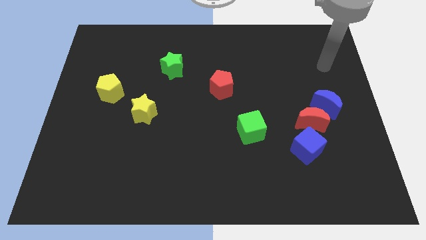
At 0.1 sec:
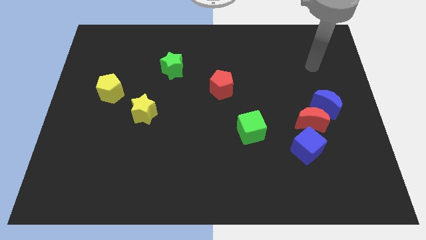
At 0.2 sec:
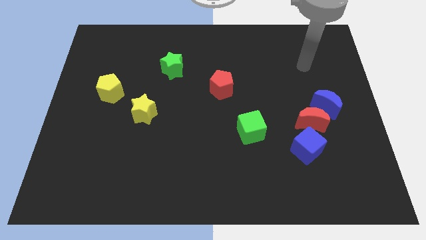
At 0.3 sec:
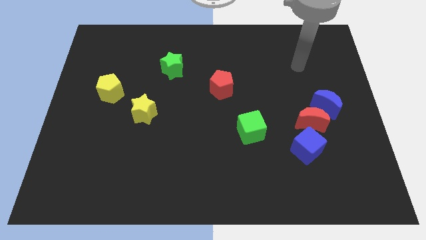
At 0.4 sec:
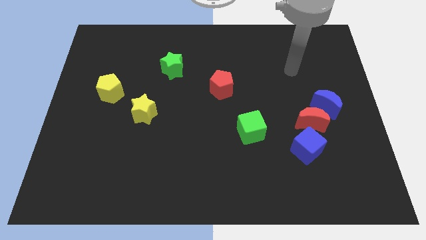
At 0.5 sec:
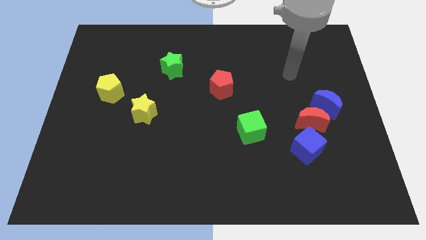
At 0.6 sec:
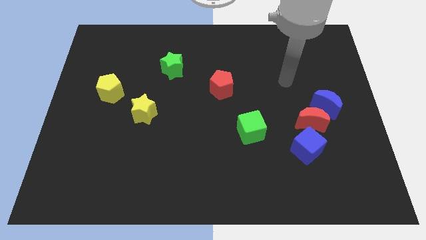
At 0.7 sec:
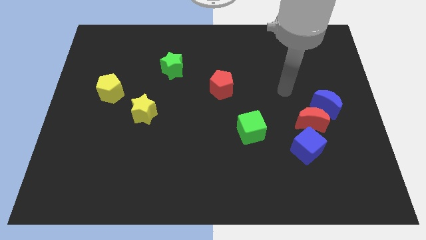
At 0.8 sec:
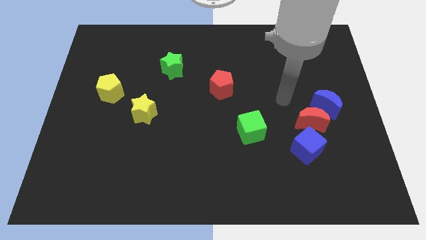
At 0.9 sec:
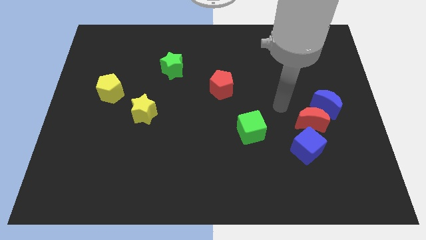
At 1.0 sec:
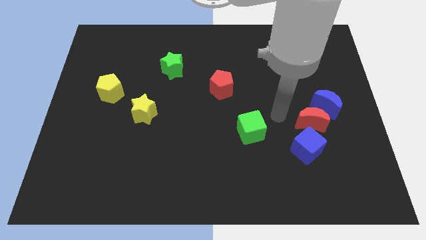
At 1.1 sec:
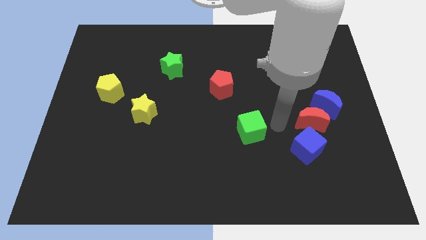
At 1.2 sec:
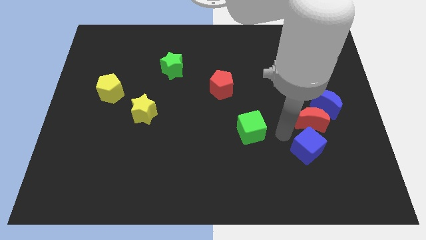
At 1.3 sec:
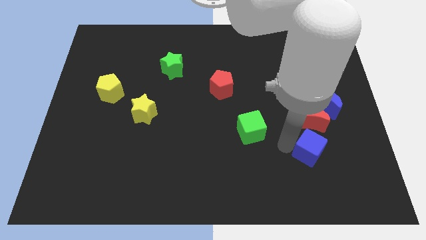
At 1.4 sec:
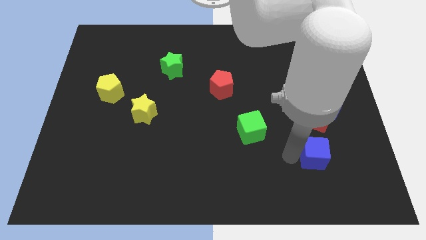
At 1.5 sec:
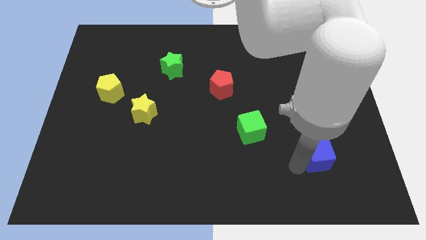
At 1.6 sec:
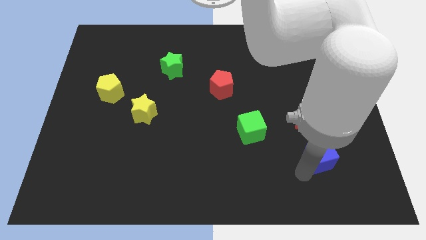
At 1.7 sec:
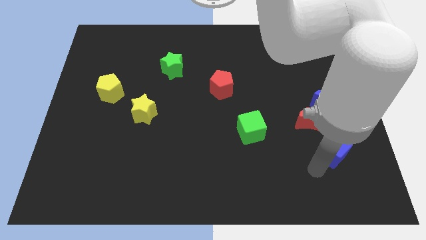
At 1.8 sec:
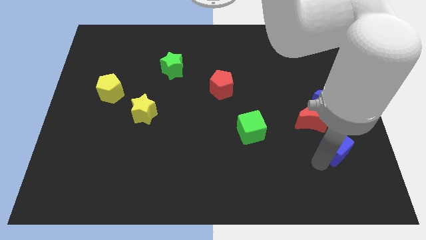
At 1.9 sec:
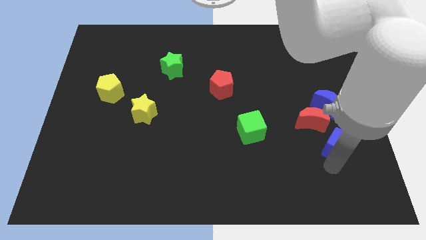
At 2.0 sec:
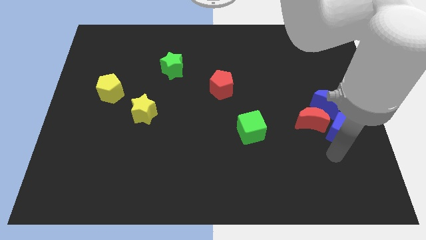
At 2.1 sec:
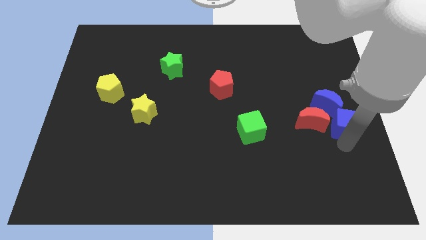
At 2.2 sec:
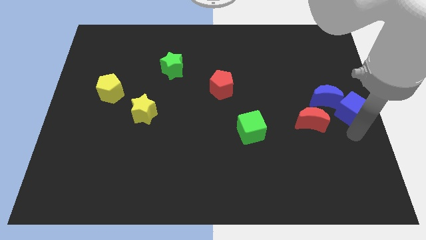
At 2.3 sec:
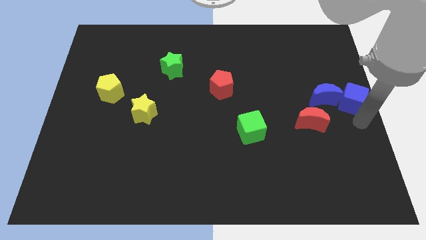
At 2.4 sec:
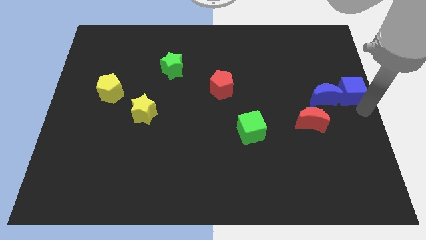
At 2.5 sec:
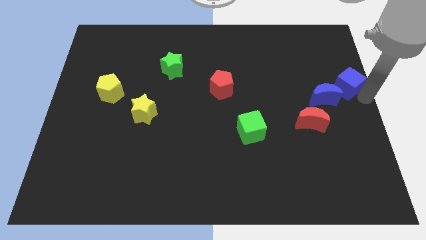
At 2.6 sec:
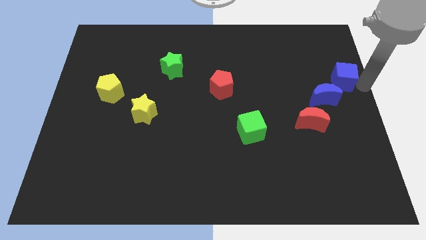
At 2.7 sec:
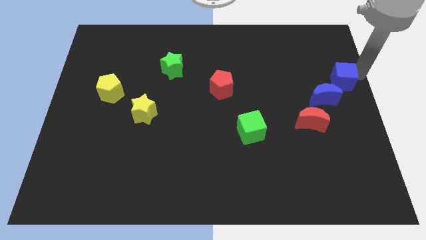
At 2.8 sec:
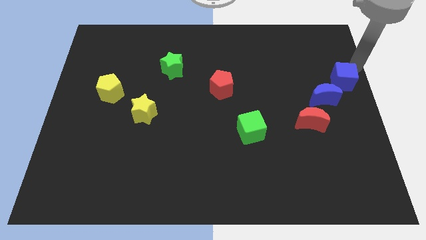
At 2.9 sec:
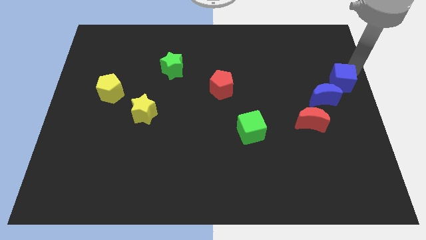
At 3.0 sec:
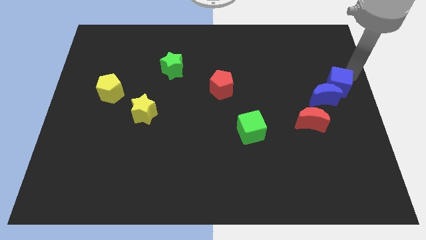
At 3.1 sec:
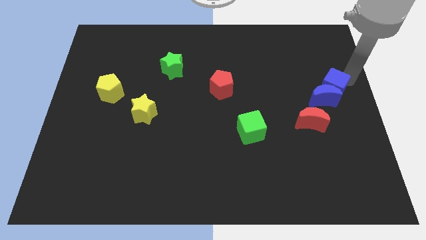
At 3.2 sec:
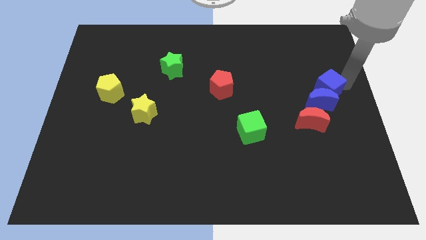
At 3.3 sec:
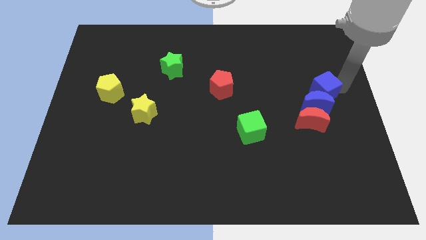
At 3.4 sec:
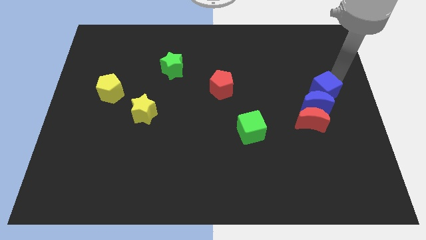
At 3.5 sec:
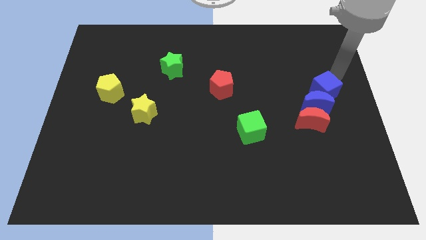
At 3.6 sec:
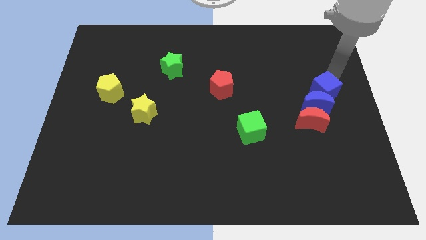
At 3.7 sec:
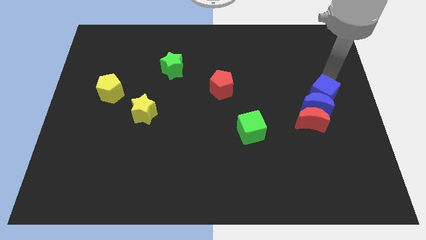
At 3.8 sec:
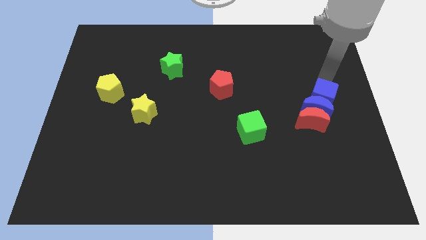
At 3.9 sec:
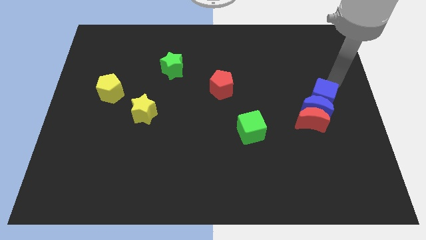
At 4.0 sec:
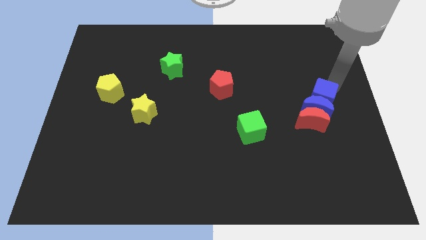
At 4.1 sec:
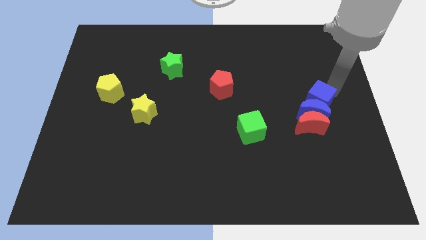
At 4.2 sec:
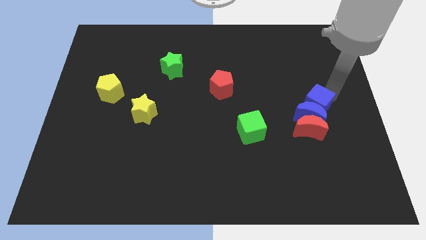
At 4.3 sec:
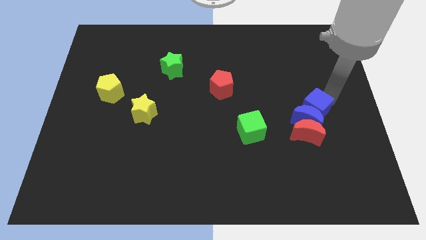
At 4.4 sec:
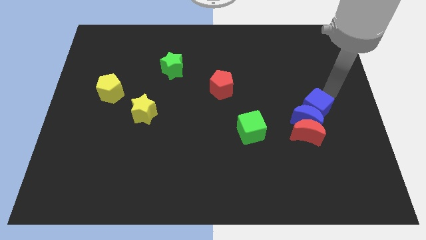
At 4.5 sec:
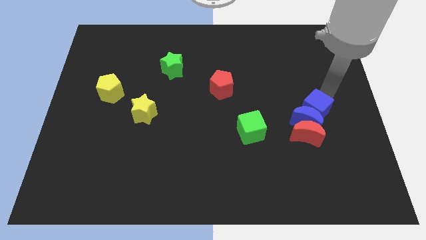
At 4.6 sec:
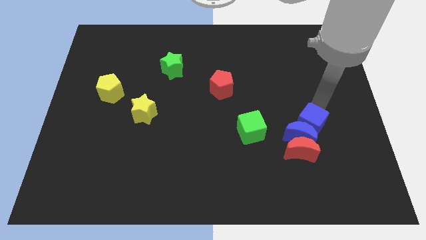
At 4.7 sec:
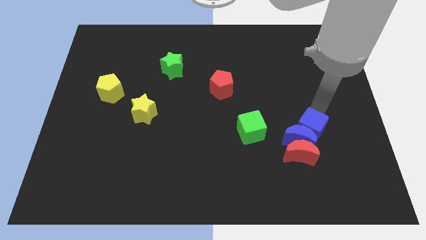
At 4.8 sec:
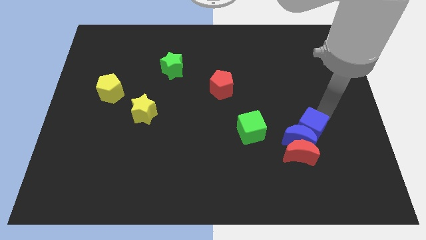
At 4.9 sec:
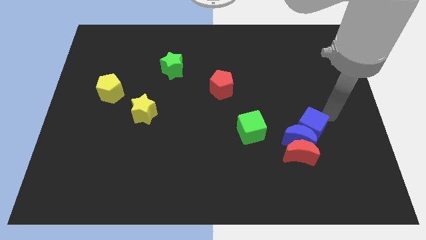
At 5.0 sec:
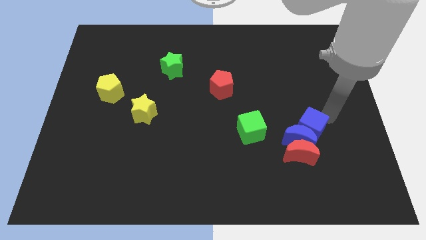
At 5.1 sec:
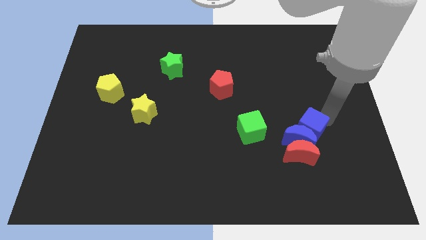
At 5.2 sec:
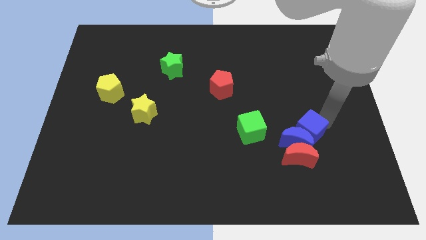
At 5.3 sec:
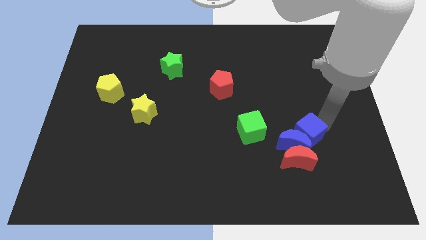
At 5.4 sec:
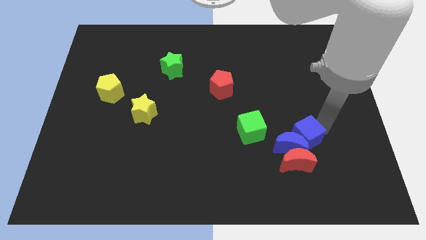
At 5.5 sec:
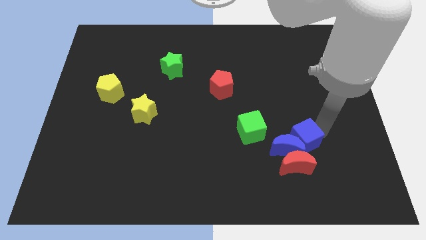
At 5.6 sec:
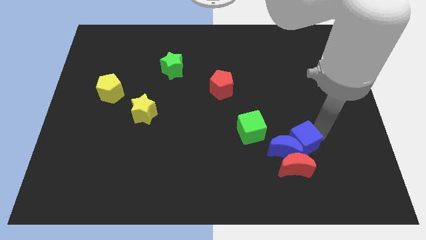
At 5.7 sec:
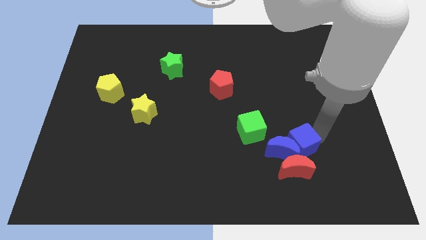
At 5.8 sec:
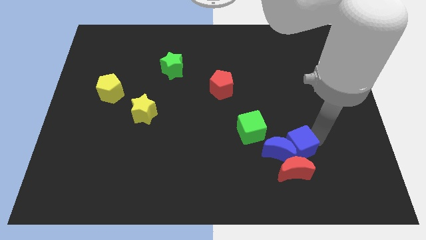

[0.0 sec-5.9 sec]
put the blue cube to the bottom right side of the green cube
